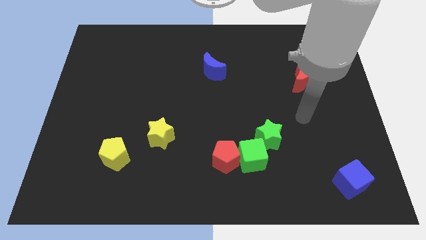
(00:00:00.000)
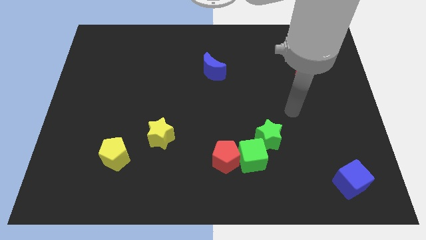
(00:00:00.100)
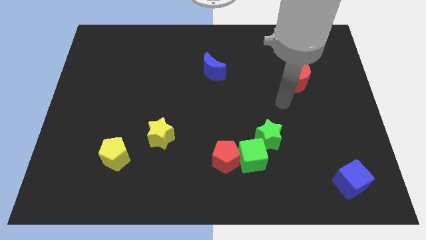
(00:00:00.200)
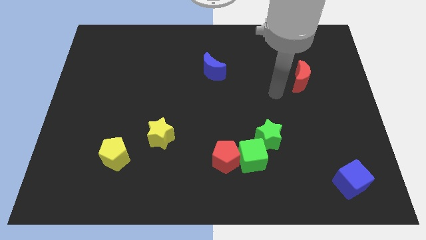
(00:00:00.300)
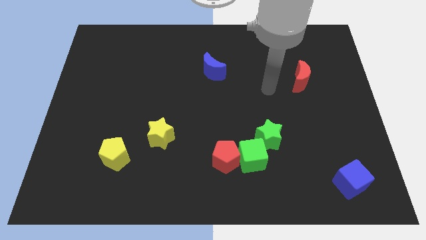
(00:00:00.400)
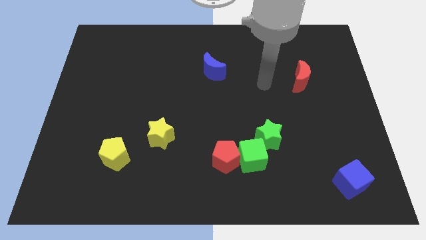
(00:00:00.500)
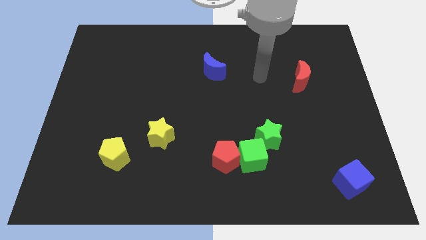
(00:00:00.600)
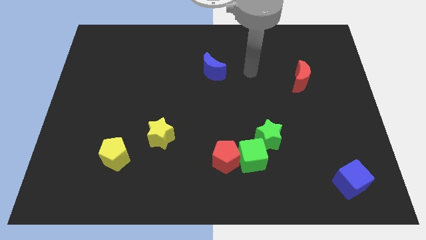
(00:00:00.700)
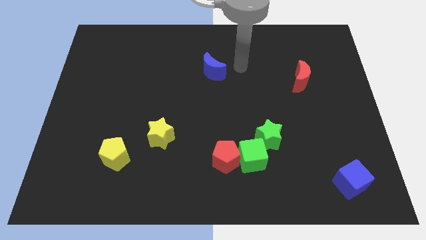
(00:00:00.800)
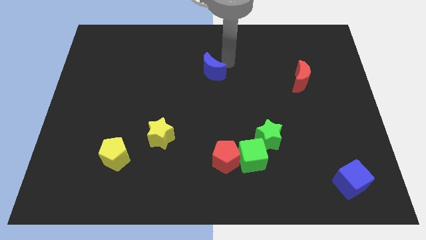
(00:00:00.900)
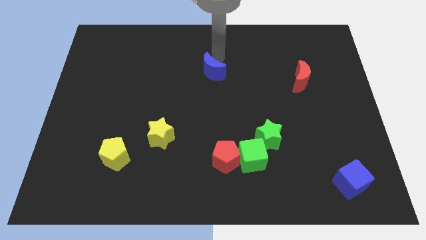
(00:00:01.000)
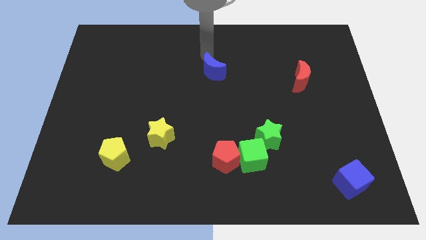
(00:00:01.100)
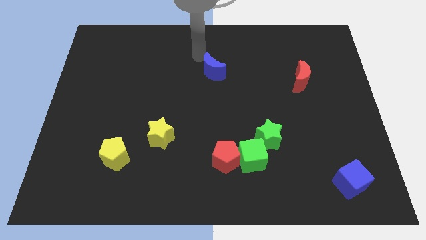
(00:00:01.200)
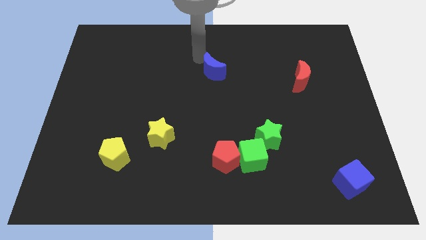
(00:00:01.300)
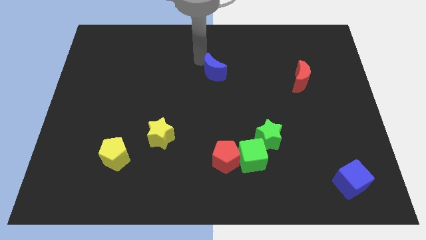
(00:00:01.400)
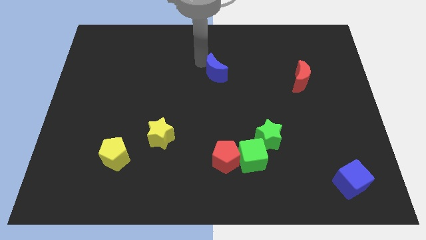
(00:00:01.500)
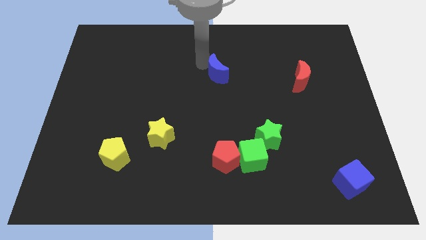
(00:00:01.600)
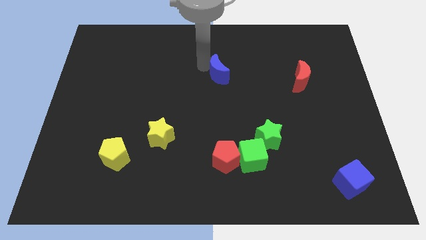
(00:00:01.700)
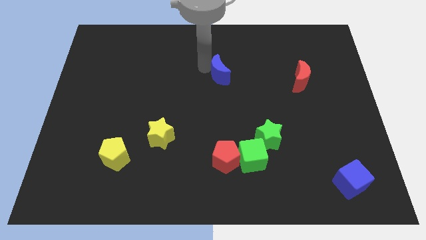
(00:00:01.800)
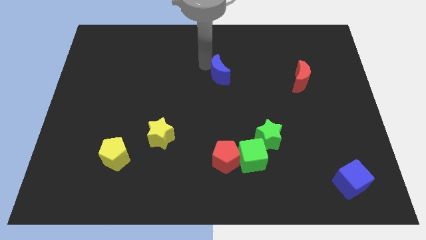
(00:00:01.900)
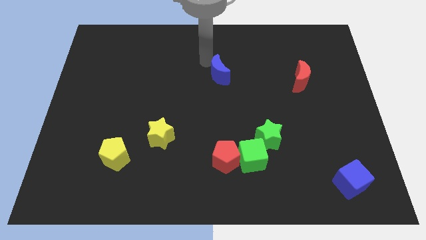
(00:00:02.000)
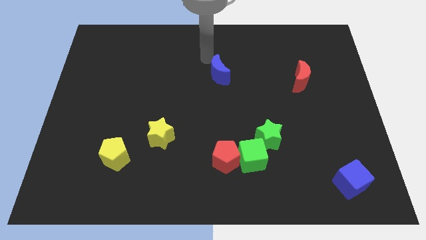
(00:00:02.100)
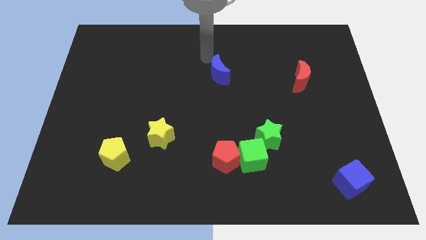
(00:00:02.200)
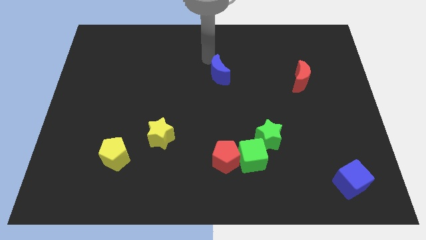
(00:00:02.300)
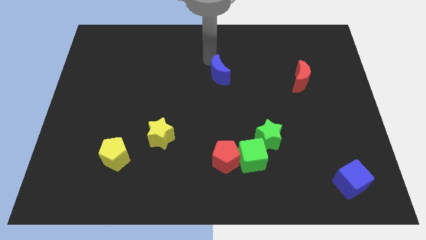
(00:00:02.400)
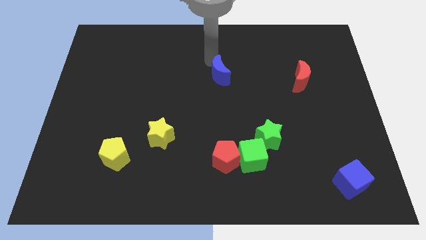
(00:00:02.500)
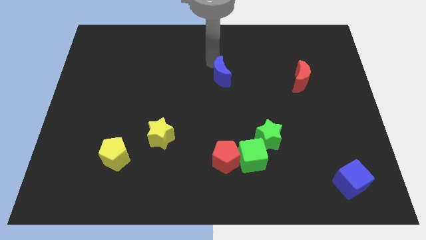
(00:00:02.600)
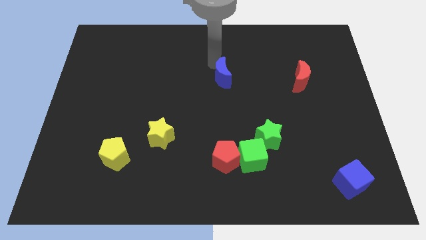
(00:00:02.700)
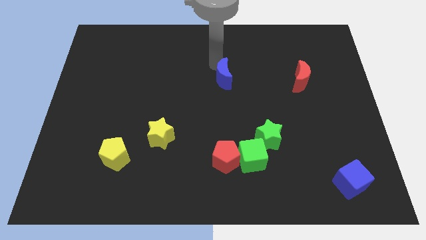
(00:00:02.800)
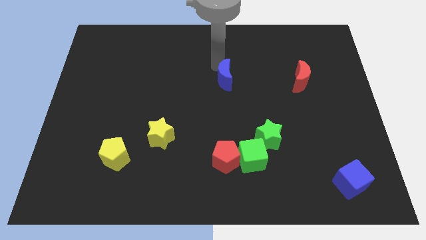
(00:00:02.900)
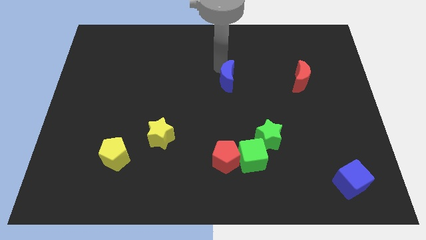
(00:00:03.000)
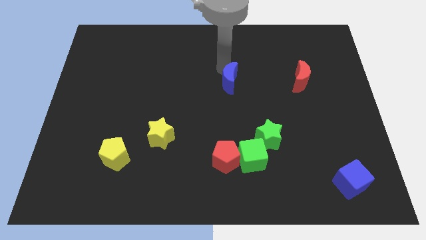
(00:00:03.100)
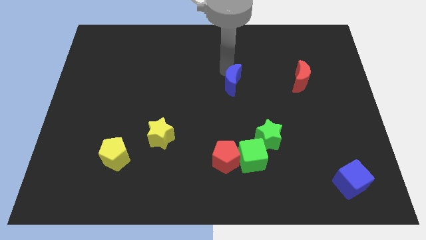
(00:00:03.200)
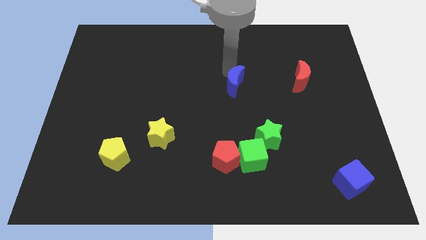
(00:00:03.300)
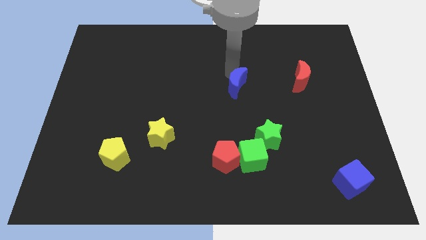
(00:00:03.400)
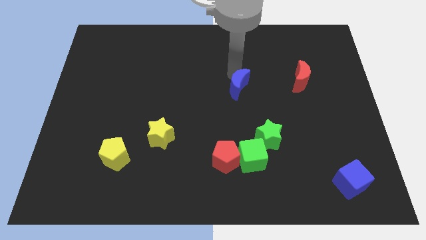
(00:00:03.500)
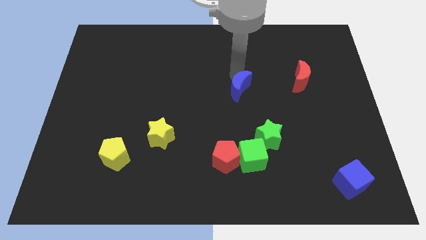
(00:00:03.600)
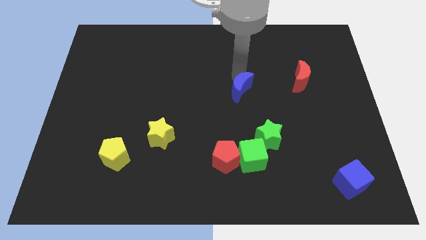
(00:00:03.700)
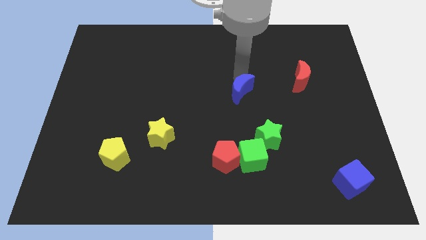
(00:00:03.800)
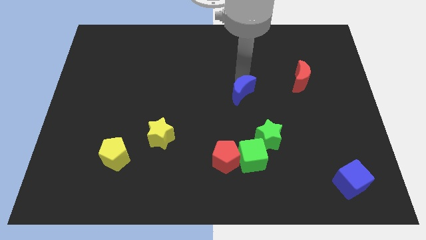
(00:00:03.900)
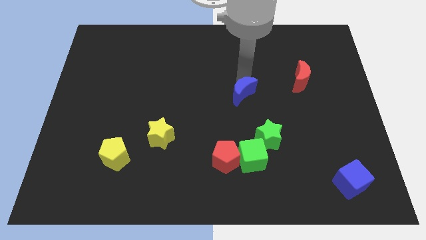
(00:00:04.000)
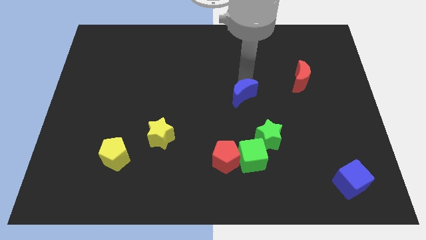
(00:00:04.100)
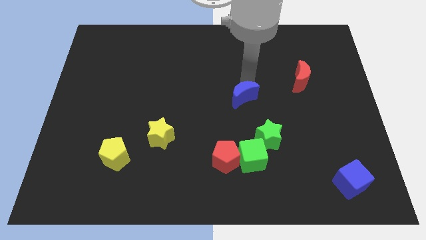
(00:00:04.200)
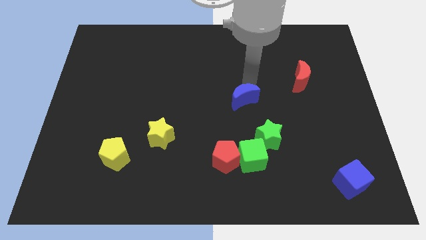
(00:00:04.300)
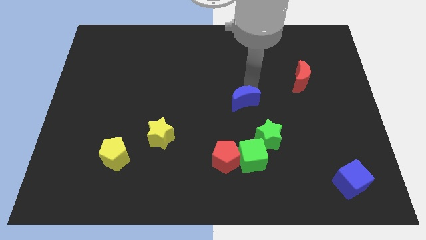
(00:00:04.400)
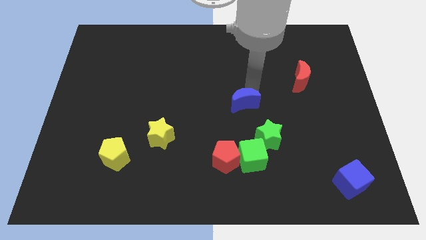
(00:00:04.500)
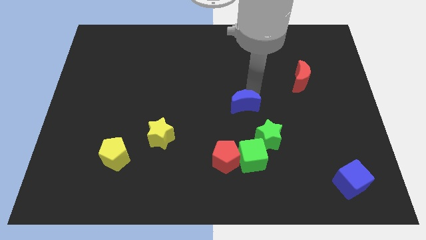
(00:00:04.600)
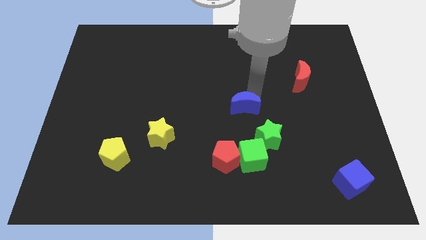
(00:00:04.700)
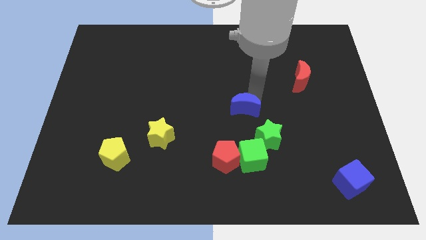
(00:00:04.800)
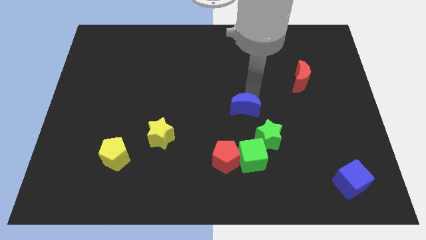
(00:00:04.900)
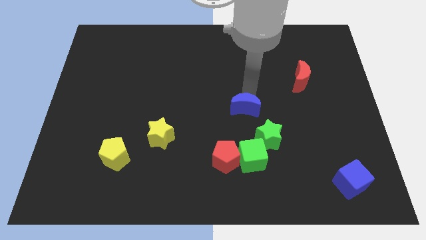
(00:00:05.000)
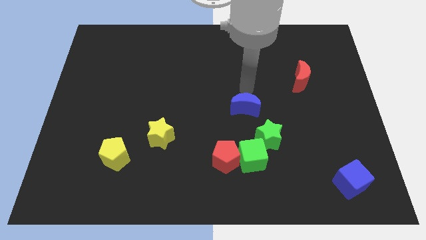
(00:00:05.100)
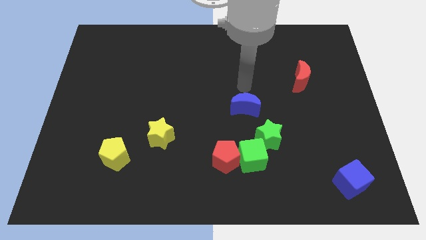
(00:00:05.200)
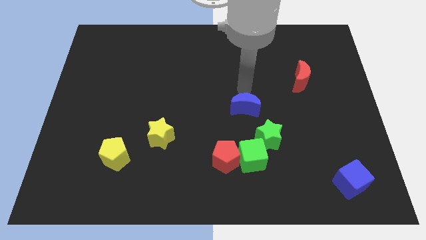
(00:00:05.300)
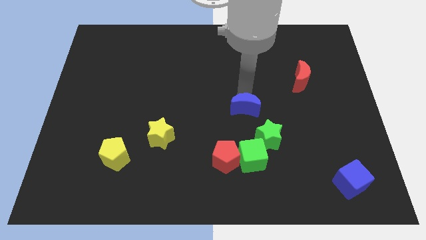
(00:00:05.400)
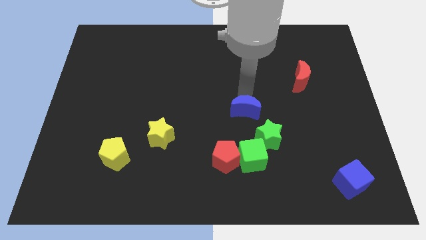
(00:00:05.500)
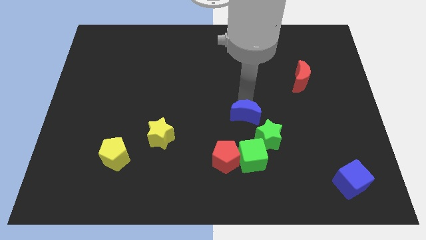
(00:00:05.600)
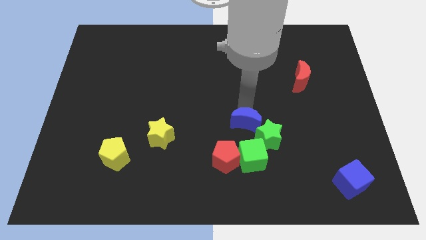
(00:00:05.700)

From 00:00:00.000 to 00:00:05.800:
slide the blue moon to the top right side of the red pentagon

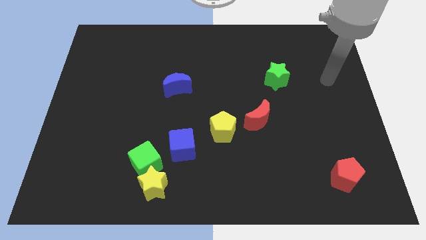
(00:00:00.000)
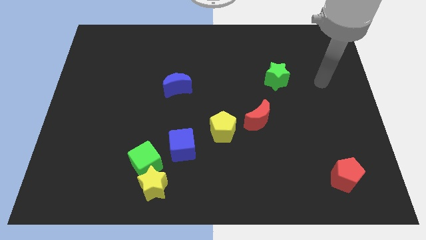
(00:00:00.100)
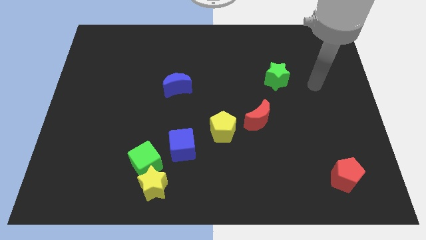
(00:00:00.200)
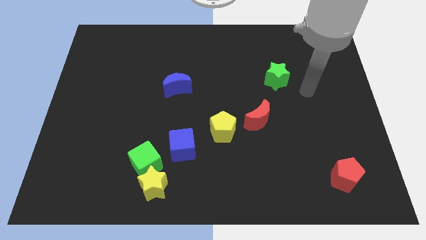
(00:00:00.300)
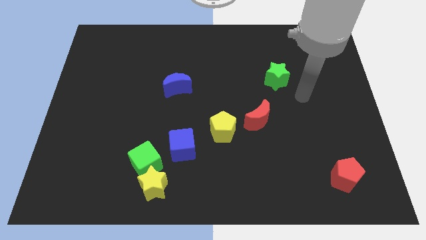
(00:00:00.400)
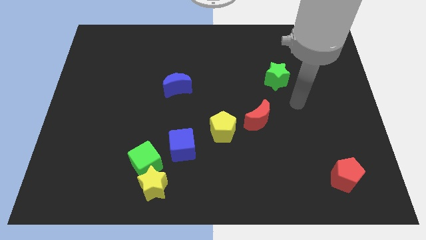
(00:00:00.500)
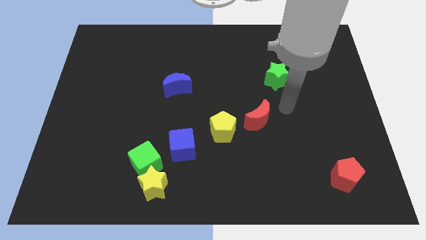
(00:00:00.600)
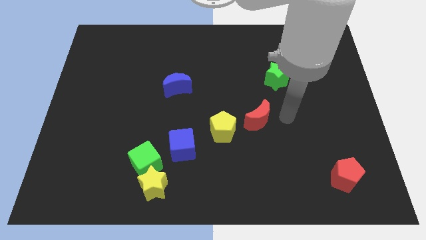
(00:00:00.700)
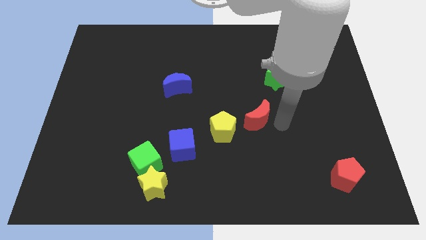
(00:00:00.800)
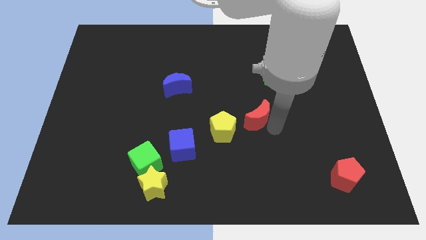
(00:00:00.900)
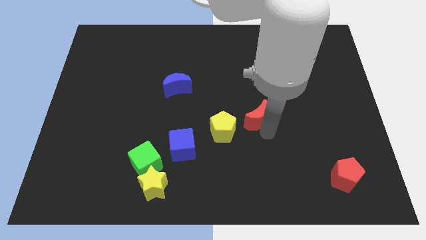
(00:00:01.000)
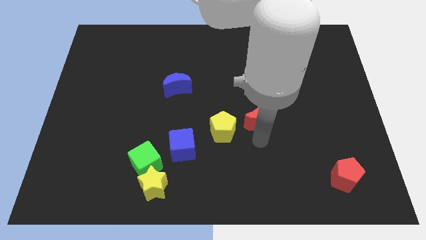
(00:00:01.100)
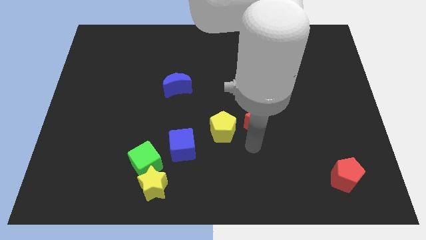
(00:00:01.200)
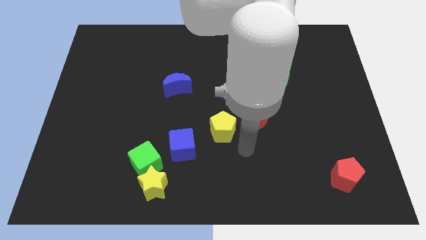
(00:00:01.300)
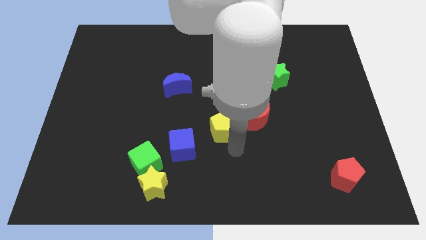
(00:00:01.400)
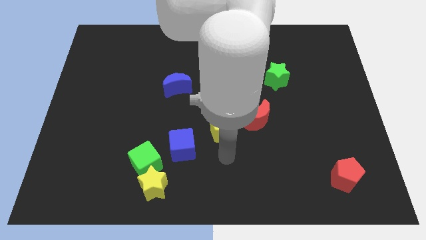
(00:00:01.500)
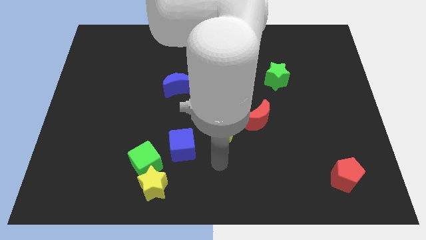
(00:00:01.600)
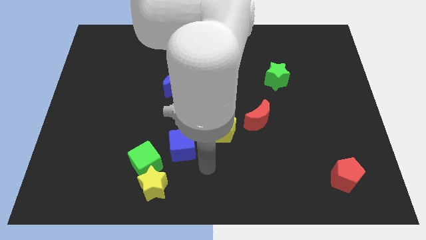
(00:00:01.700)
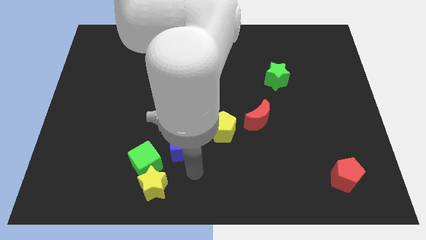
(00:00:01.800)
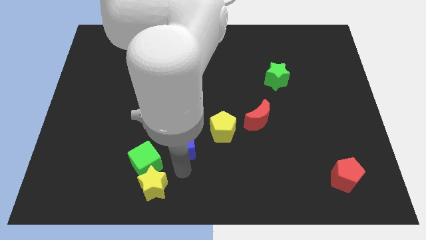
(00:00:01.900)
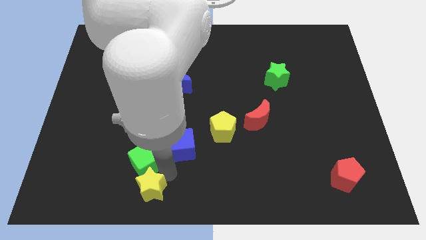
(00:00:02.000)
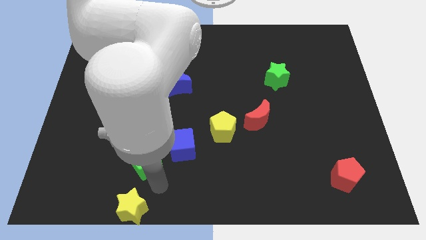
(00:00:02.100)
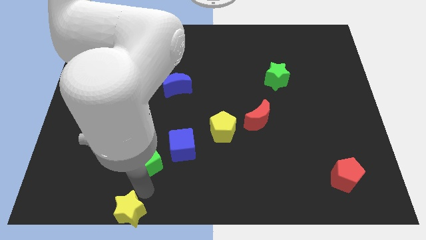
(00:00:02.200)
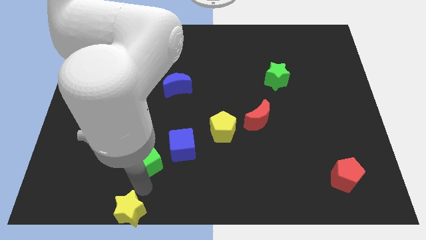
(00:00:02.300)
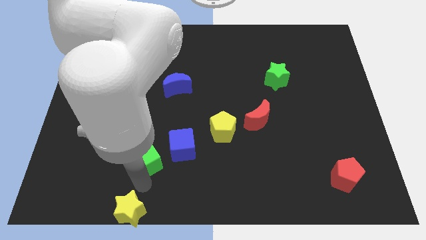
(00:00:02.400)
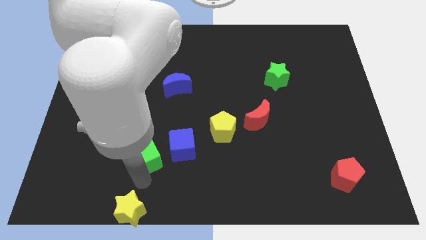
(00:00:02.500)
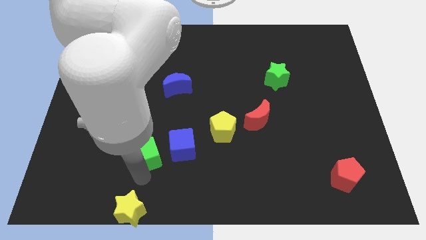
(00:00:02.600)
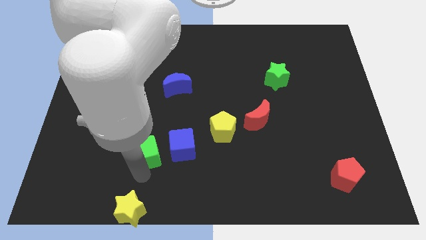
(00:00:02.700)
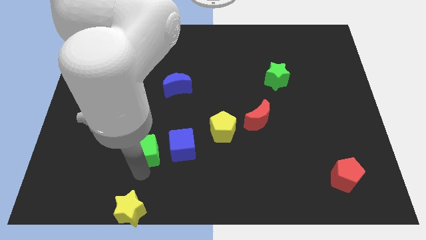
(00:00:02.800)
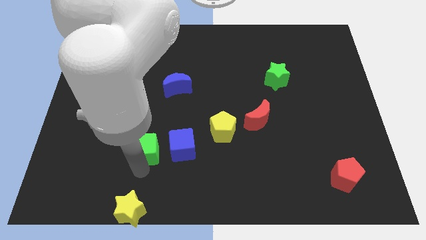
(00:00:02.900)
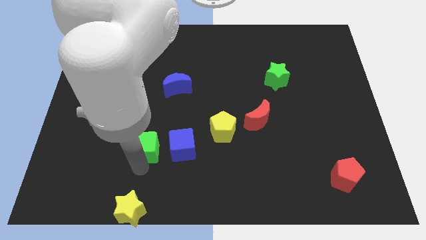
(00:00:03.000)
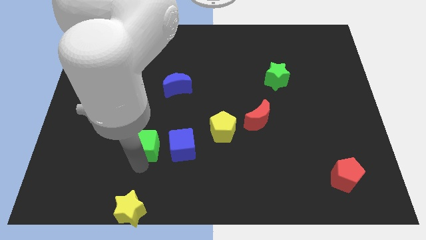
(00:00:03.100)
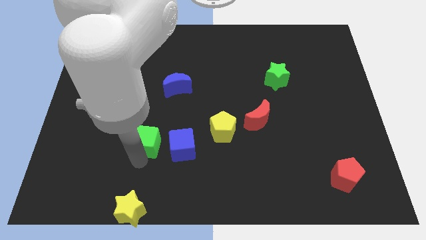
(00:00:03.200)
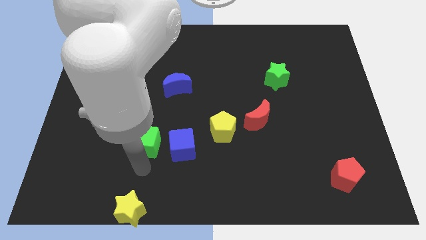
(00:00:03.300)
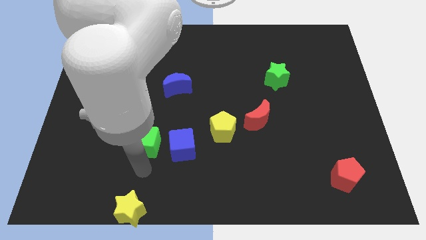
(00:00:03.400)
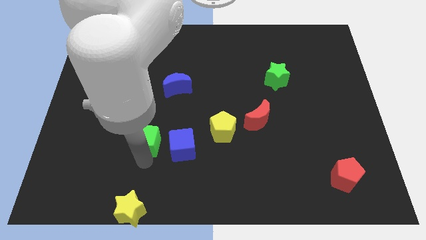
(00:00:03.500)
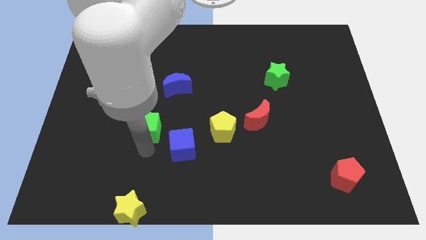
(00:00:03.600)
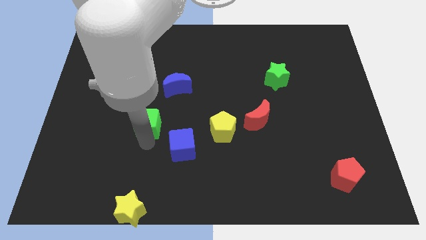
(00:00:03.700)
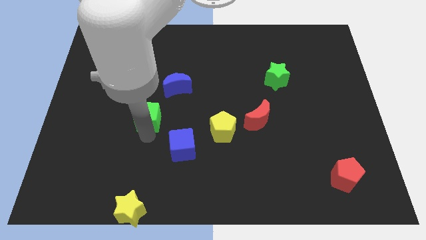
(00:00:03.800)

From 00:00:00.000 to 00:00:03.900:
move the green cube to the bottom left side of the blue moon
